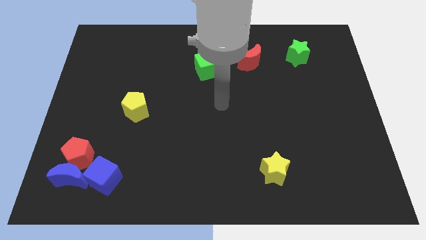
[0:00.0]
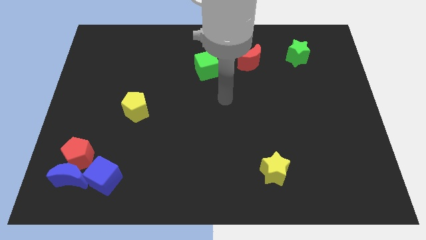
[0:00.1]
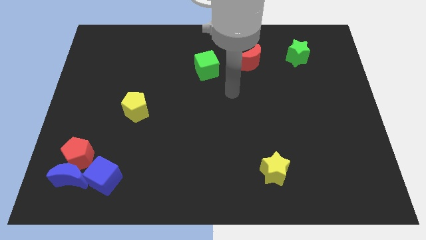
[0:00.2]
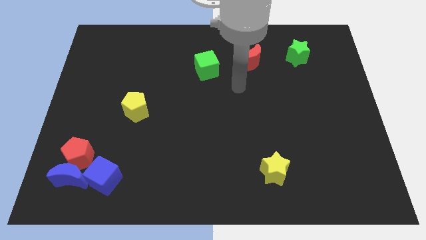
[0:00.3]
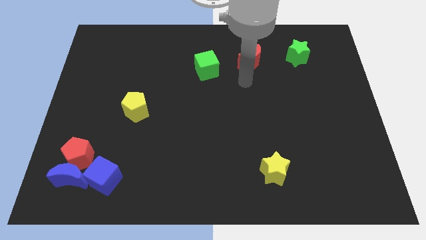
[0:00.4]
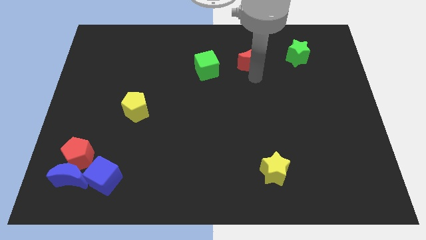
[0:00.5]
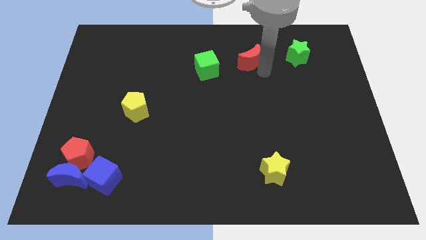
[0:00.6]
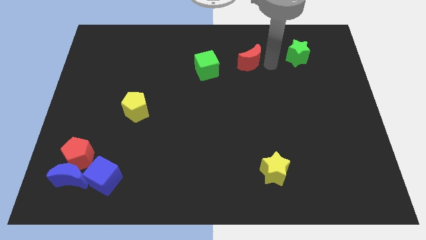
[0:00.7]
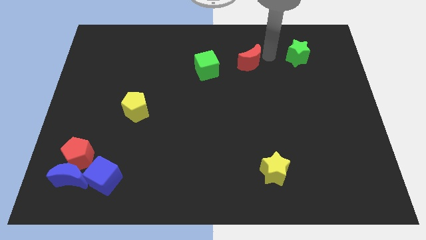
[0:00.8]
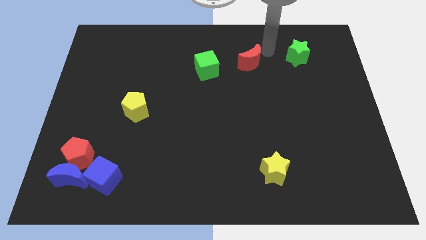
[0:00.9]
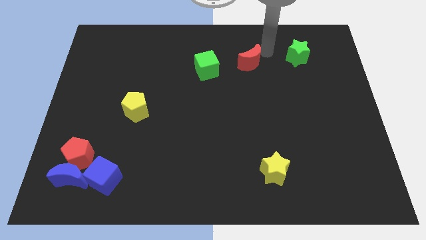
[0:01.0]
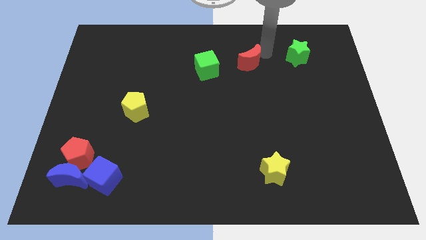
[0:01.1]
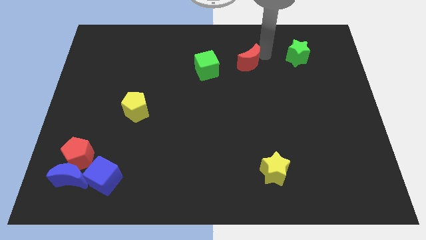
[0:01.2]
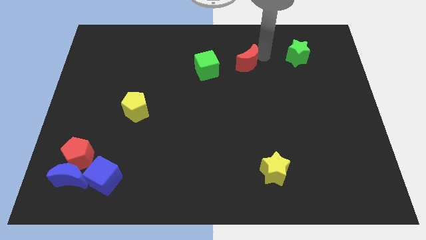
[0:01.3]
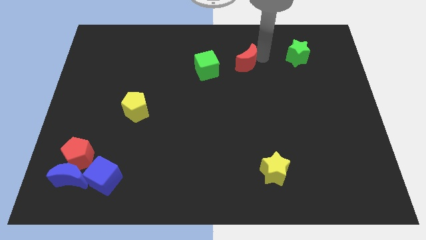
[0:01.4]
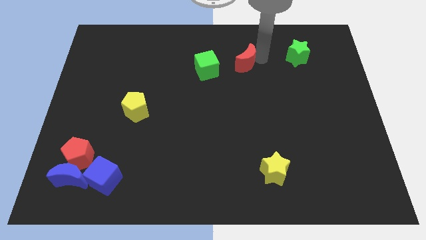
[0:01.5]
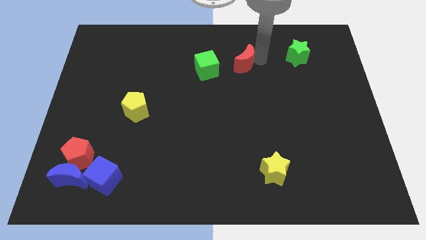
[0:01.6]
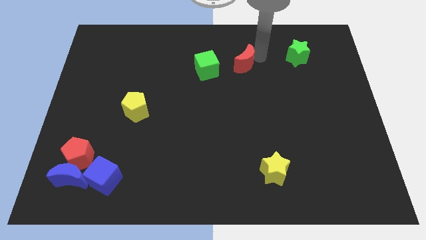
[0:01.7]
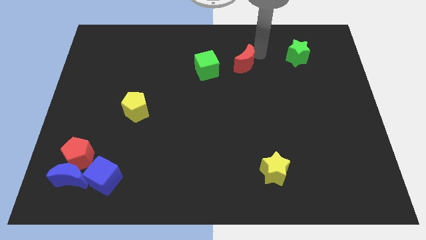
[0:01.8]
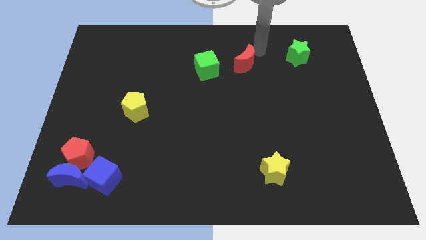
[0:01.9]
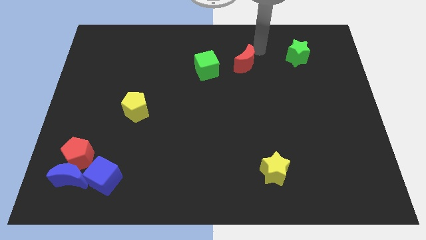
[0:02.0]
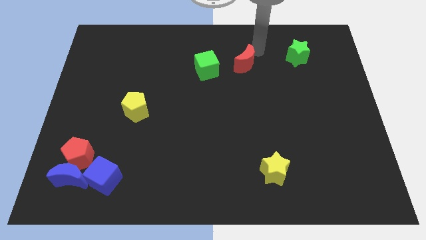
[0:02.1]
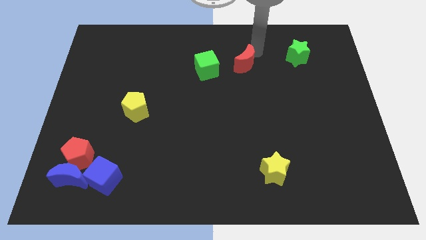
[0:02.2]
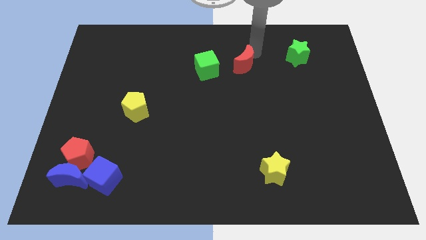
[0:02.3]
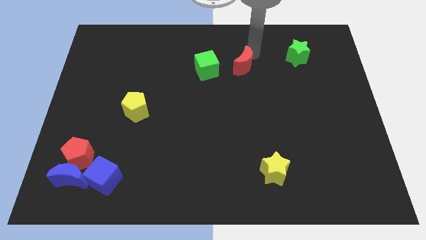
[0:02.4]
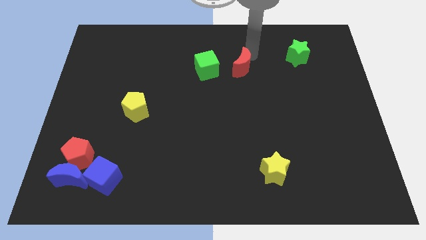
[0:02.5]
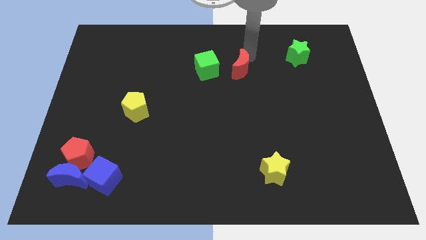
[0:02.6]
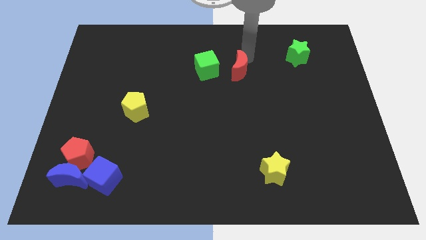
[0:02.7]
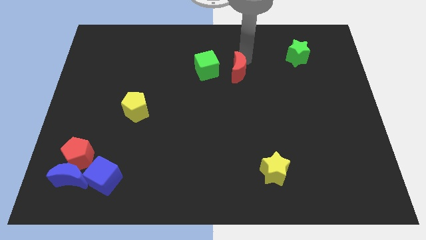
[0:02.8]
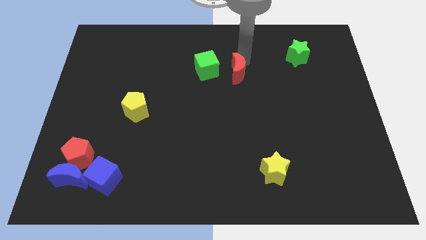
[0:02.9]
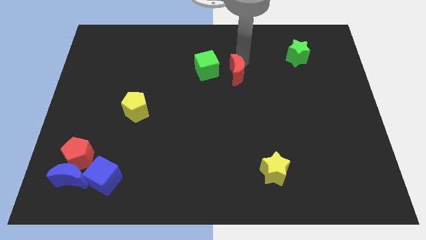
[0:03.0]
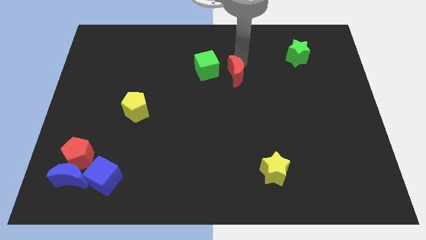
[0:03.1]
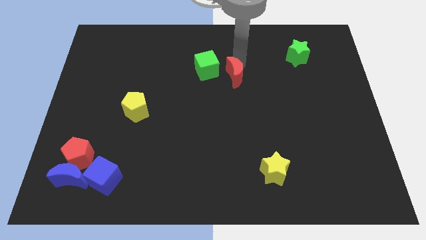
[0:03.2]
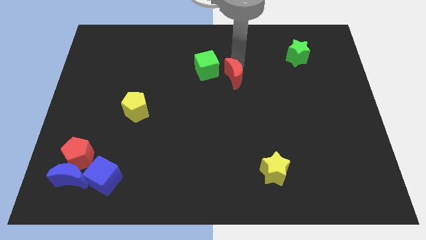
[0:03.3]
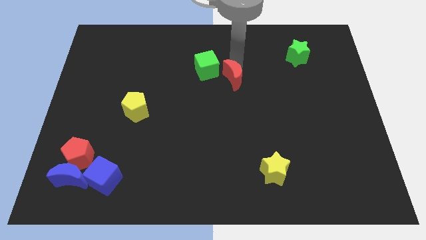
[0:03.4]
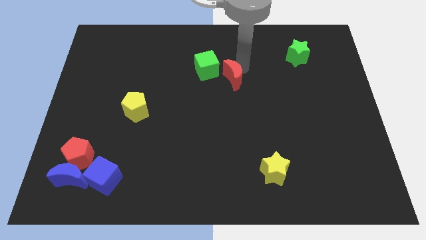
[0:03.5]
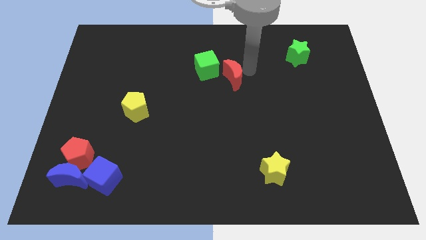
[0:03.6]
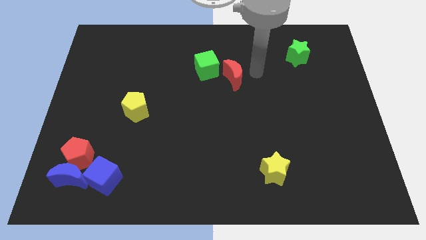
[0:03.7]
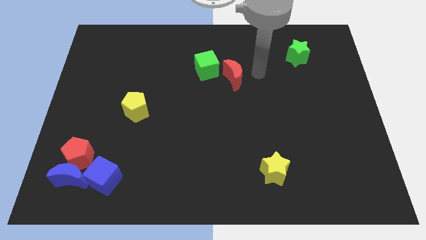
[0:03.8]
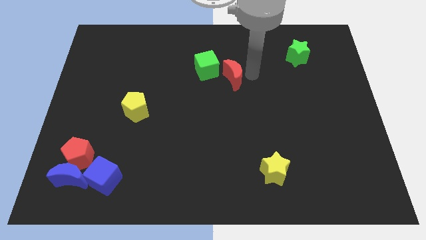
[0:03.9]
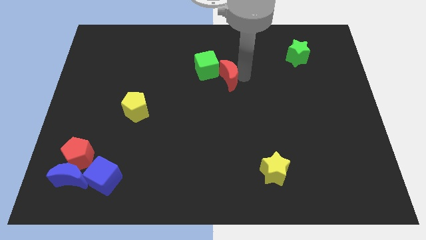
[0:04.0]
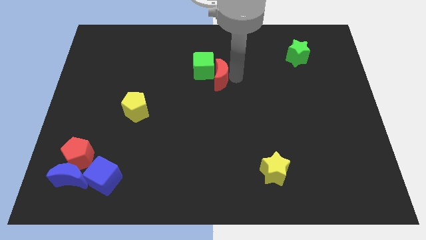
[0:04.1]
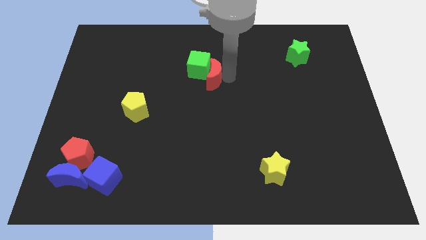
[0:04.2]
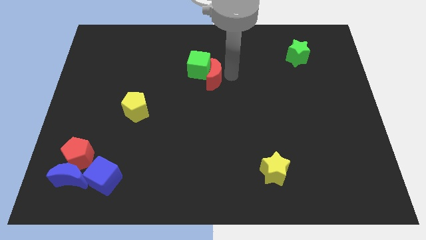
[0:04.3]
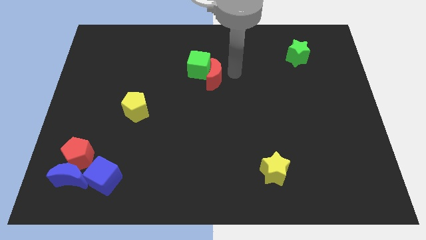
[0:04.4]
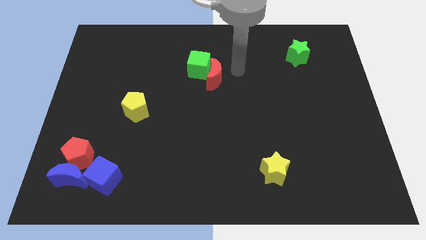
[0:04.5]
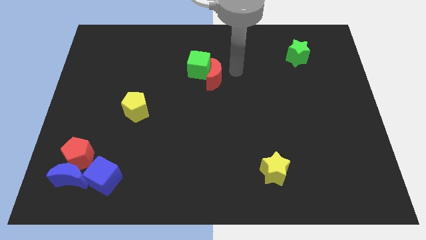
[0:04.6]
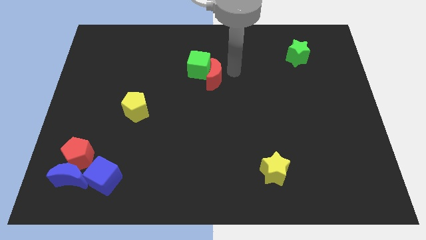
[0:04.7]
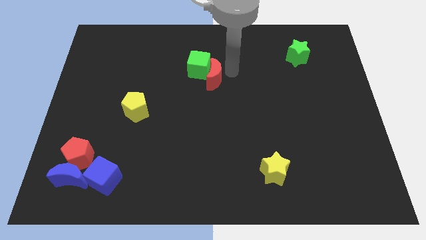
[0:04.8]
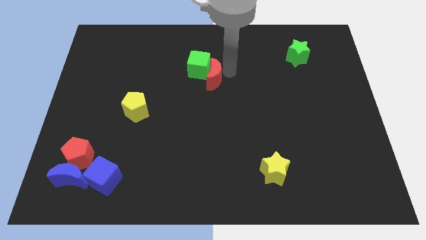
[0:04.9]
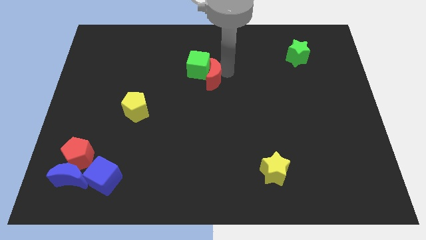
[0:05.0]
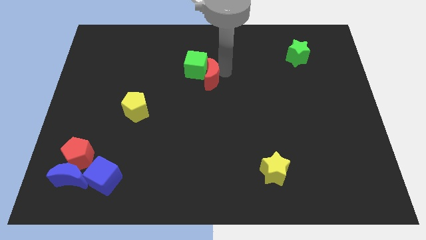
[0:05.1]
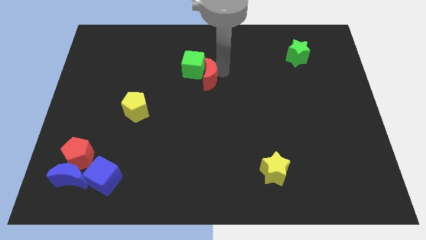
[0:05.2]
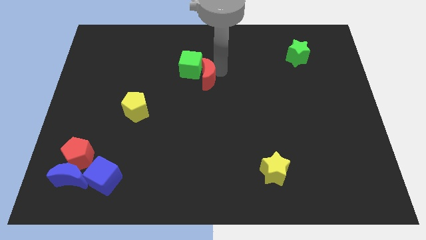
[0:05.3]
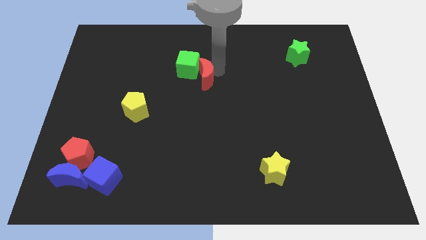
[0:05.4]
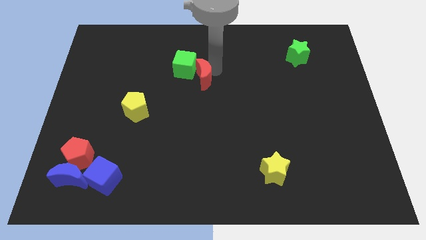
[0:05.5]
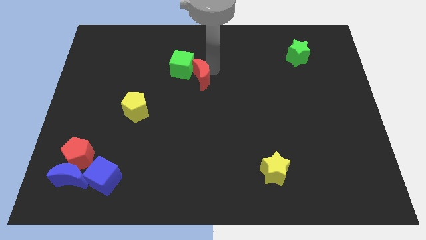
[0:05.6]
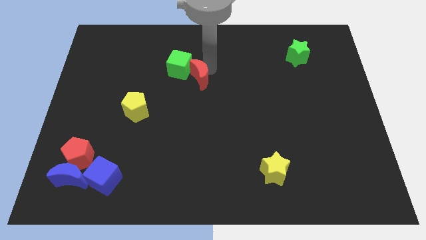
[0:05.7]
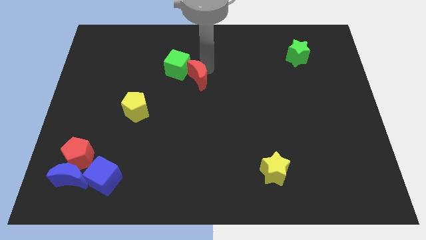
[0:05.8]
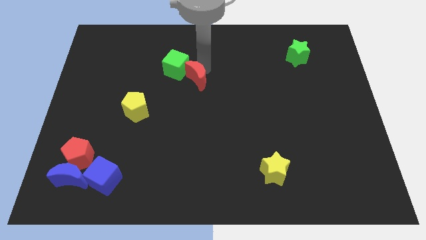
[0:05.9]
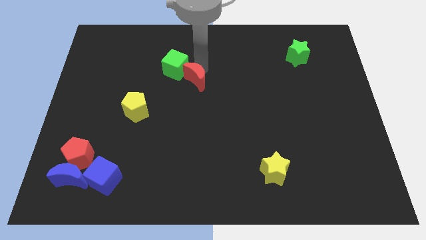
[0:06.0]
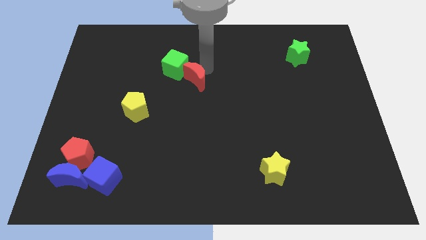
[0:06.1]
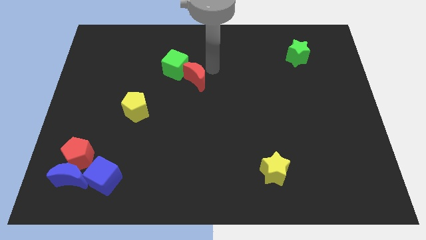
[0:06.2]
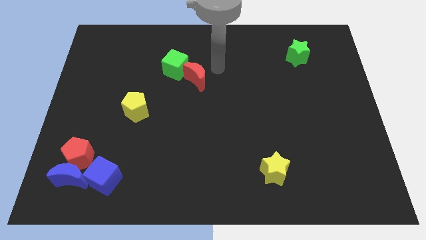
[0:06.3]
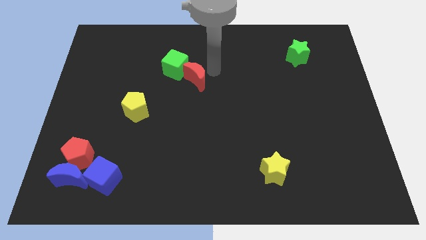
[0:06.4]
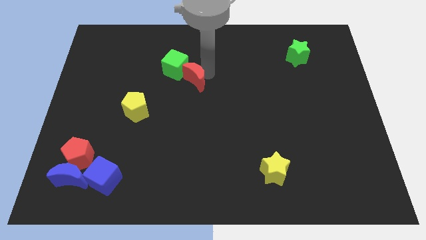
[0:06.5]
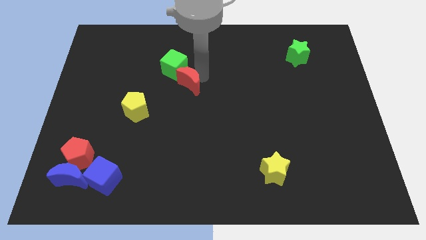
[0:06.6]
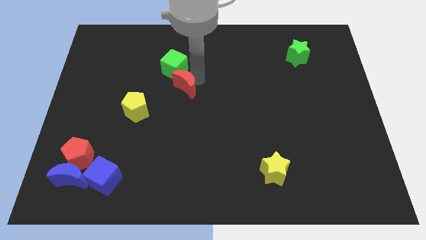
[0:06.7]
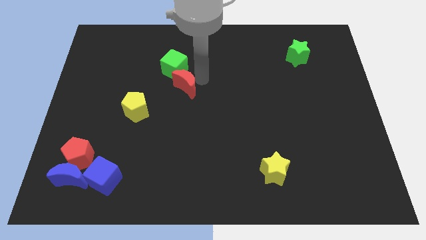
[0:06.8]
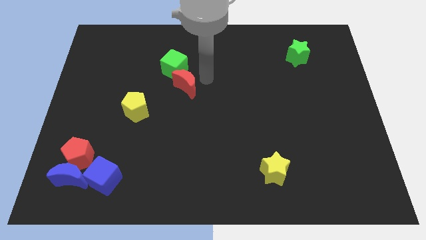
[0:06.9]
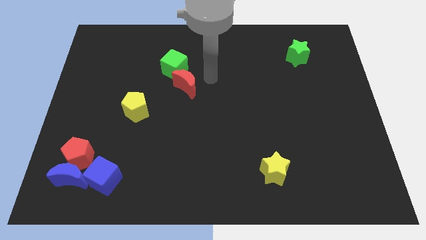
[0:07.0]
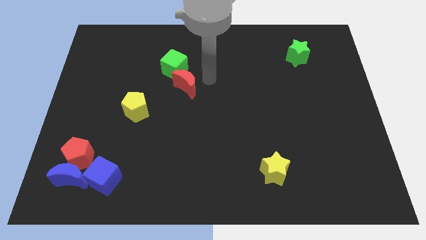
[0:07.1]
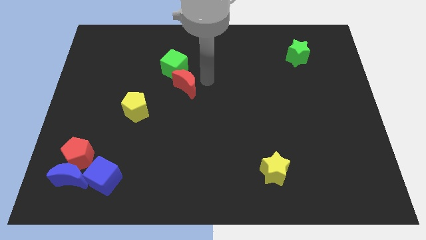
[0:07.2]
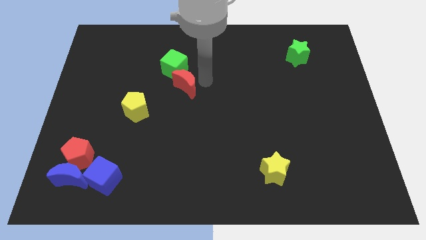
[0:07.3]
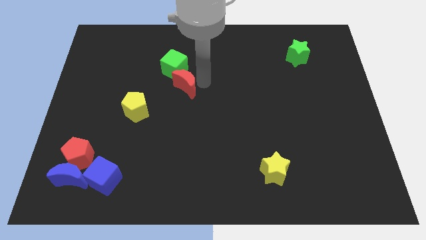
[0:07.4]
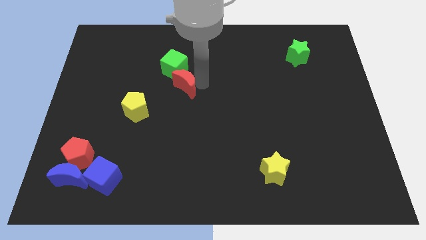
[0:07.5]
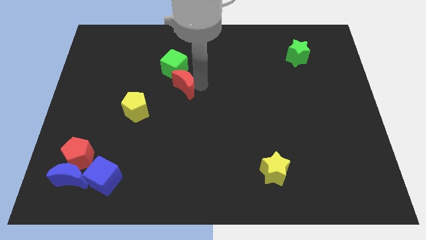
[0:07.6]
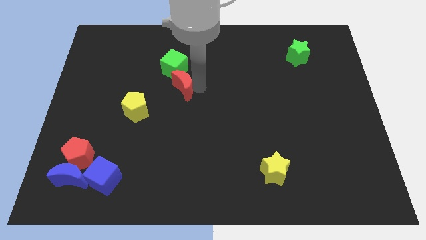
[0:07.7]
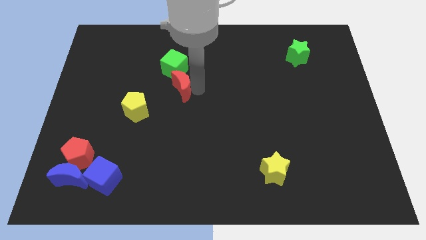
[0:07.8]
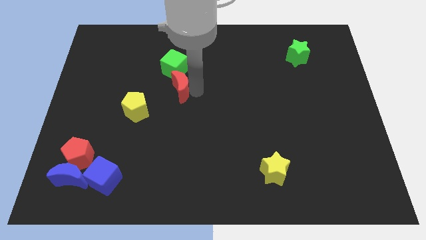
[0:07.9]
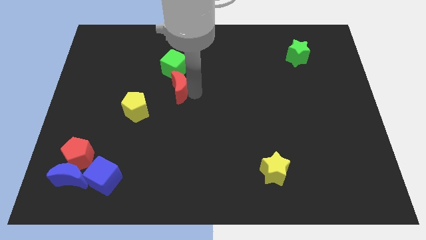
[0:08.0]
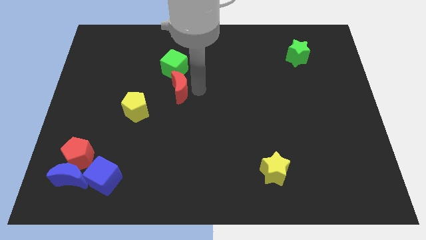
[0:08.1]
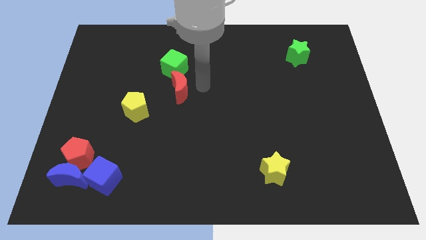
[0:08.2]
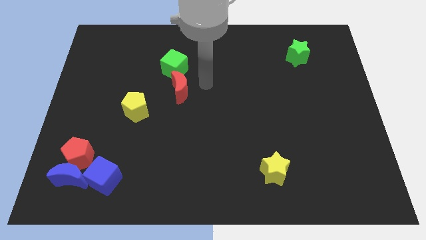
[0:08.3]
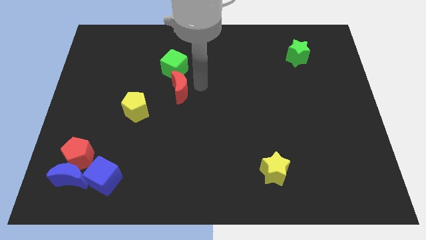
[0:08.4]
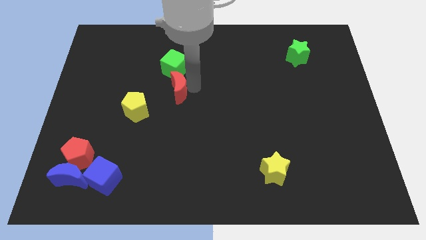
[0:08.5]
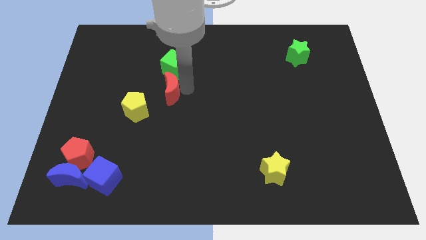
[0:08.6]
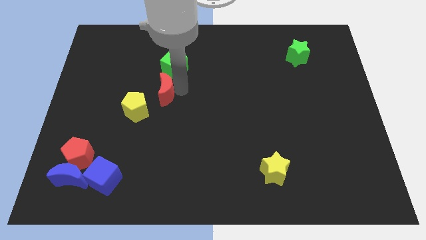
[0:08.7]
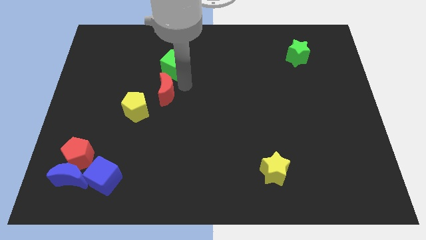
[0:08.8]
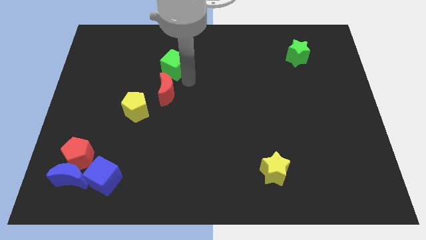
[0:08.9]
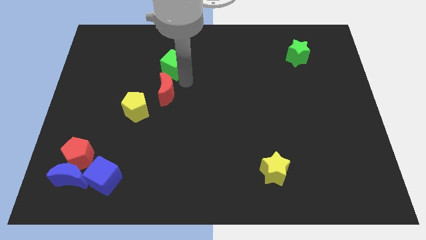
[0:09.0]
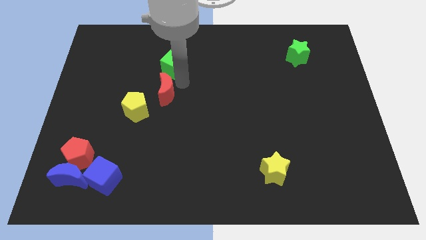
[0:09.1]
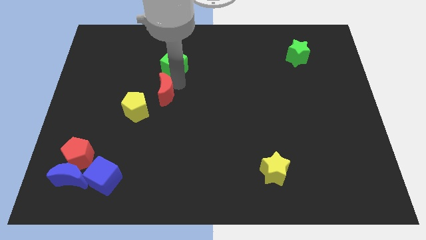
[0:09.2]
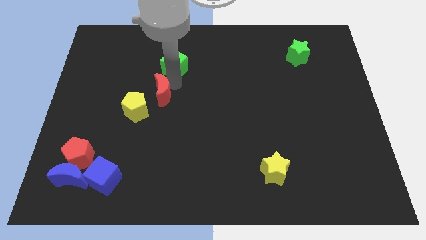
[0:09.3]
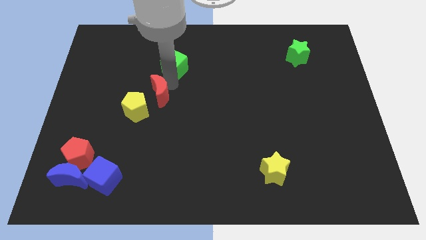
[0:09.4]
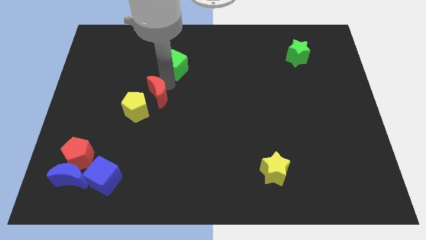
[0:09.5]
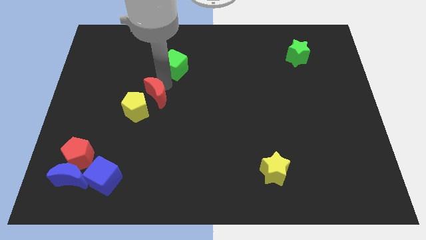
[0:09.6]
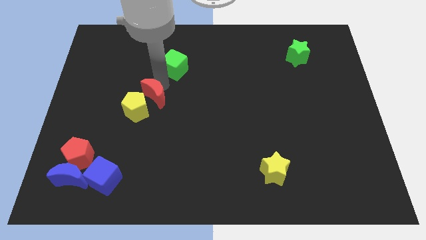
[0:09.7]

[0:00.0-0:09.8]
put the red moon to the yellow pentagon
